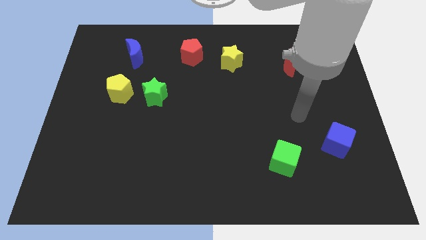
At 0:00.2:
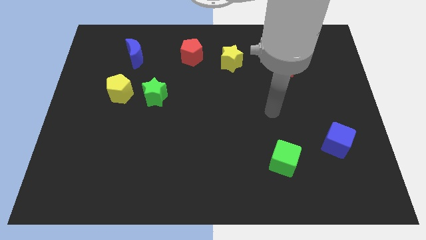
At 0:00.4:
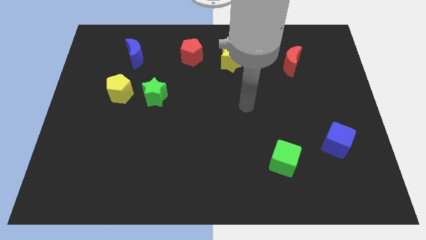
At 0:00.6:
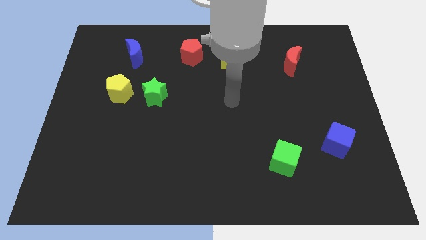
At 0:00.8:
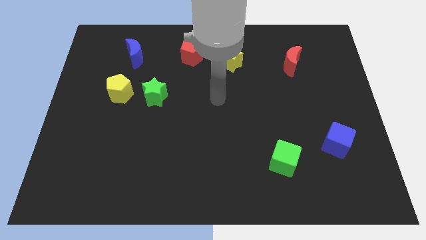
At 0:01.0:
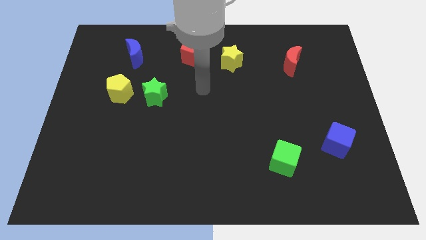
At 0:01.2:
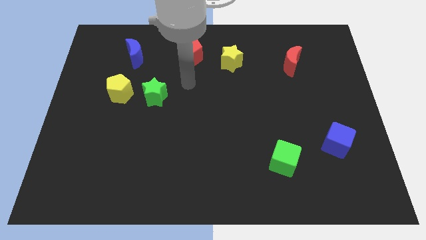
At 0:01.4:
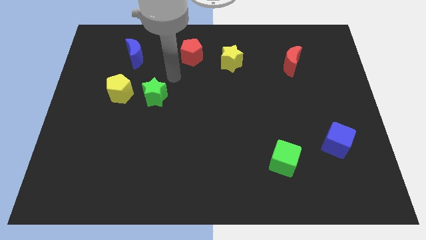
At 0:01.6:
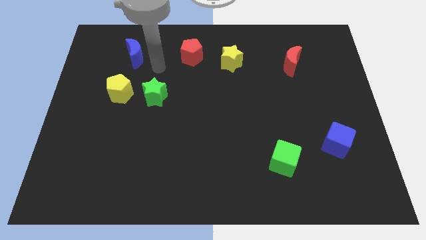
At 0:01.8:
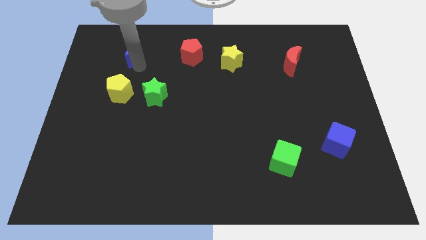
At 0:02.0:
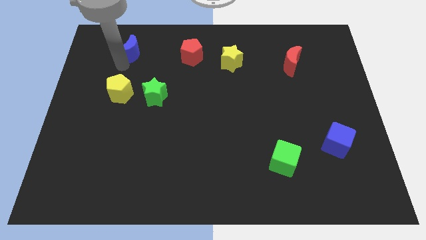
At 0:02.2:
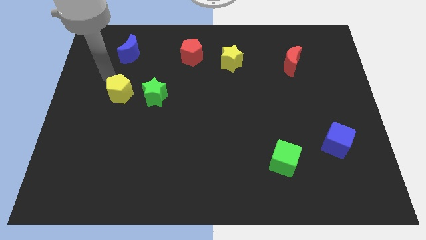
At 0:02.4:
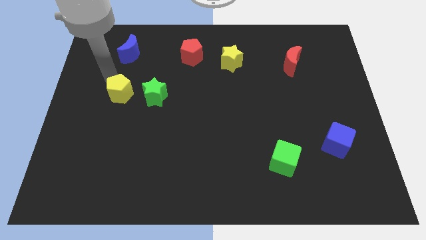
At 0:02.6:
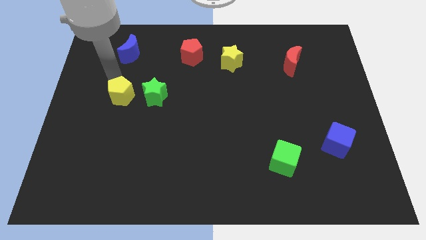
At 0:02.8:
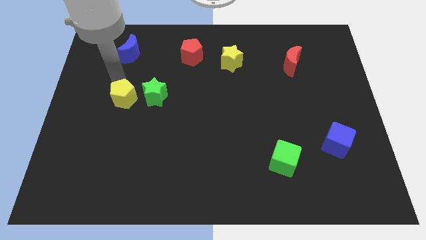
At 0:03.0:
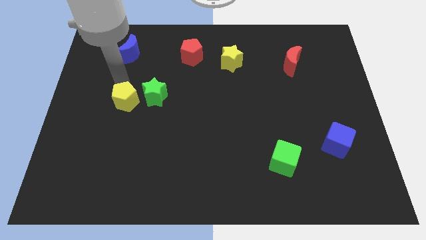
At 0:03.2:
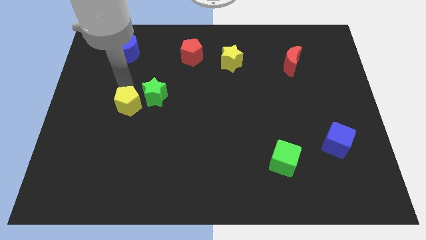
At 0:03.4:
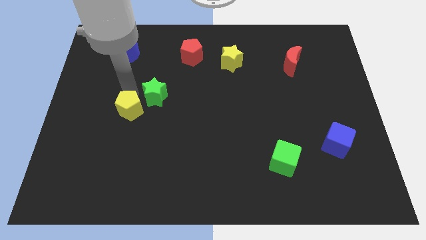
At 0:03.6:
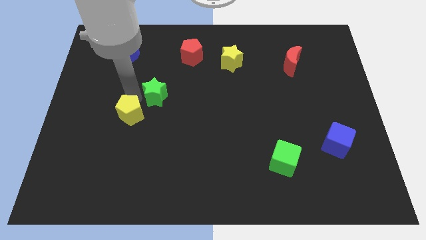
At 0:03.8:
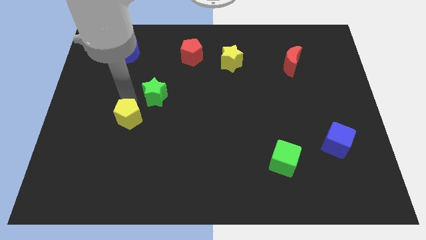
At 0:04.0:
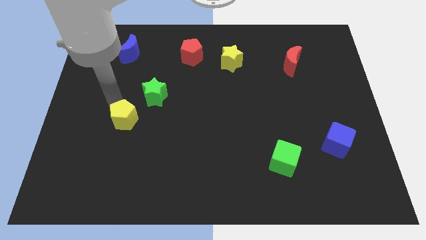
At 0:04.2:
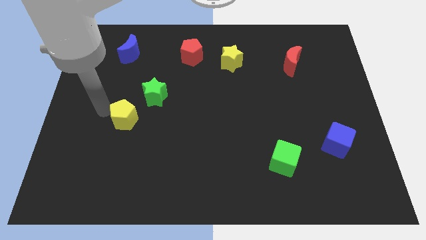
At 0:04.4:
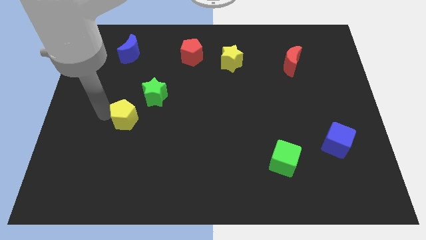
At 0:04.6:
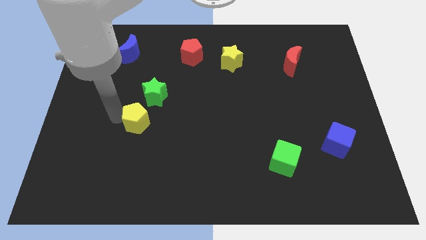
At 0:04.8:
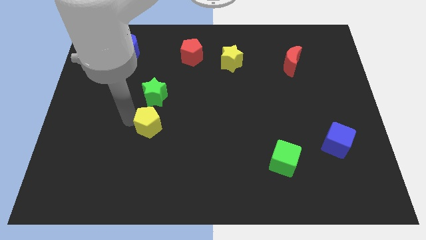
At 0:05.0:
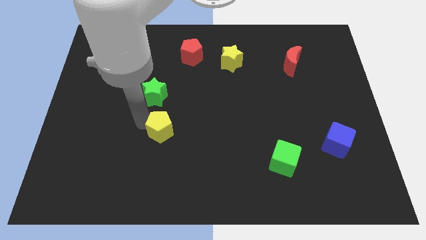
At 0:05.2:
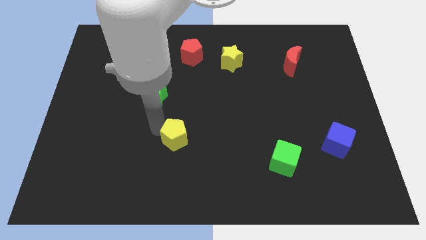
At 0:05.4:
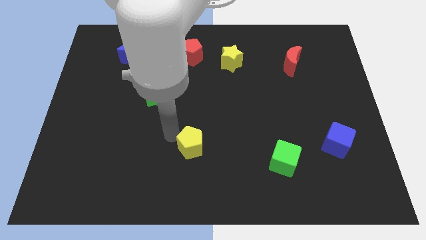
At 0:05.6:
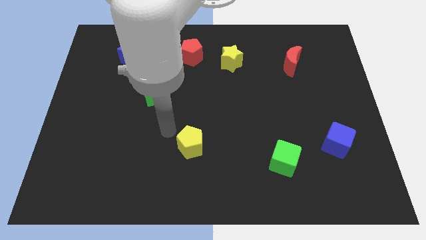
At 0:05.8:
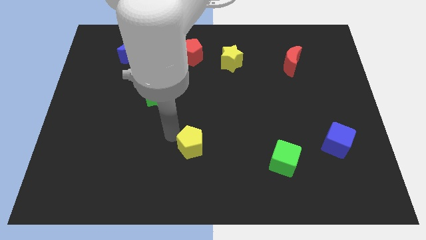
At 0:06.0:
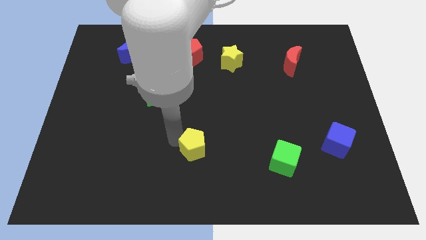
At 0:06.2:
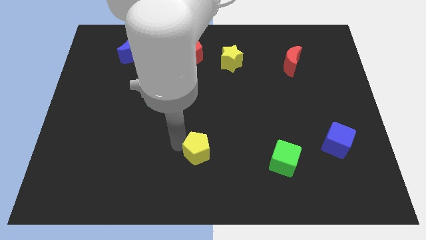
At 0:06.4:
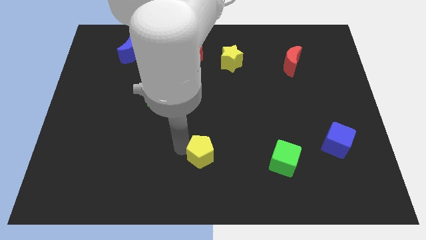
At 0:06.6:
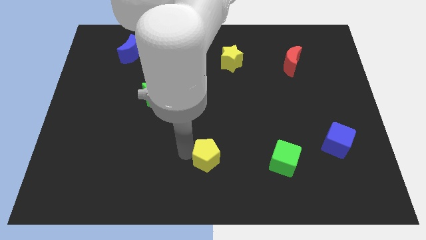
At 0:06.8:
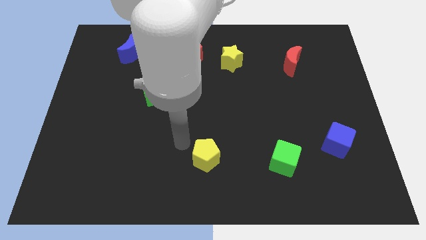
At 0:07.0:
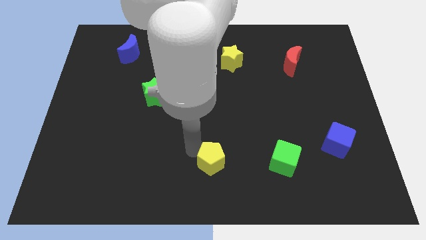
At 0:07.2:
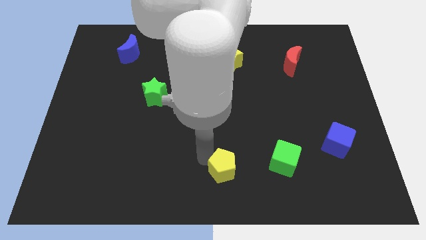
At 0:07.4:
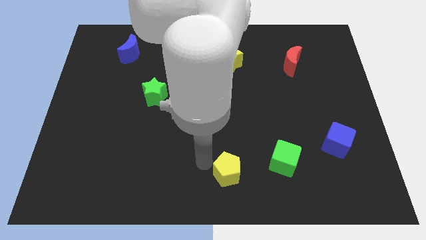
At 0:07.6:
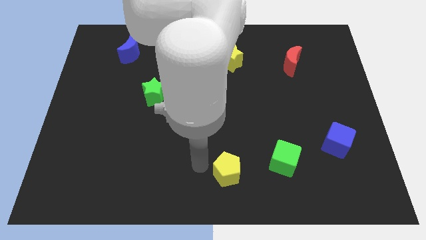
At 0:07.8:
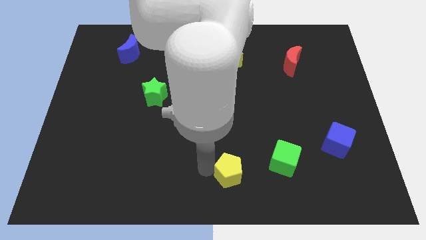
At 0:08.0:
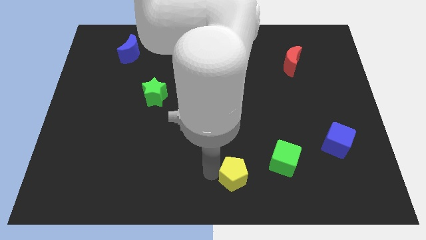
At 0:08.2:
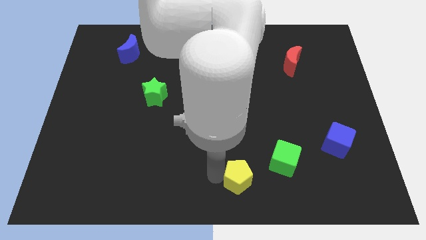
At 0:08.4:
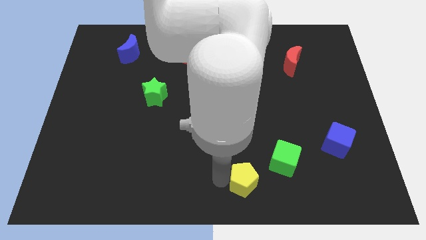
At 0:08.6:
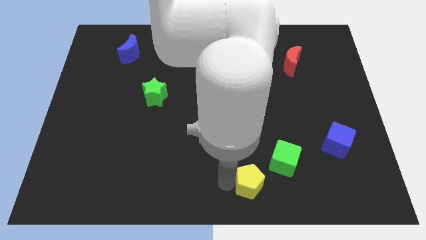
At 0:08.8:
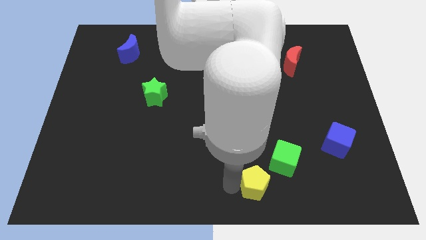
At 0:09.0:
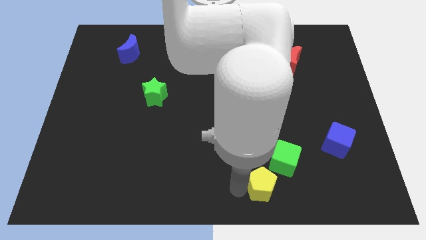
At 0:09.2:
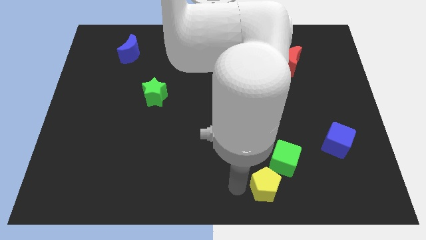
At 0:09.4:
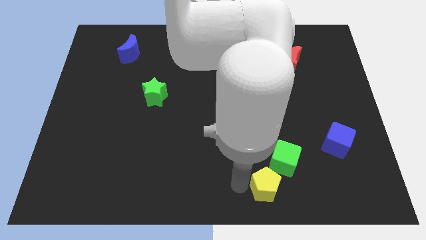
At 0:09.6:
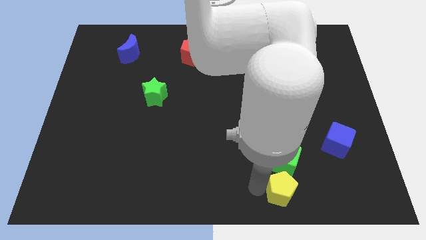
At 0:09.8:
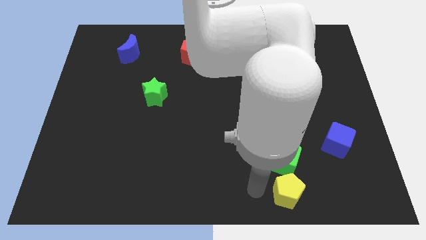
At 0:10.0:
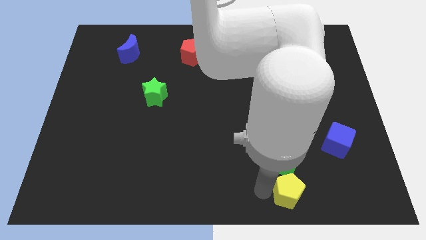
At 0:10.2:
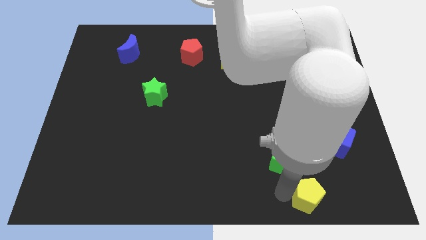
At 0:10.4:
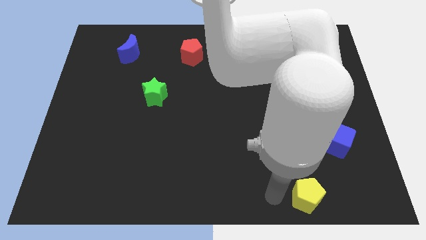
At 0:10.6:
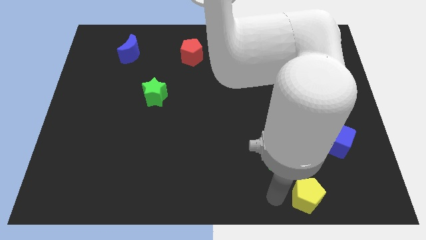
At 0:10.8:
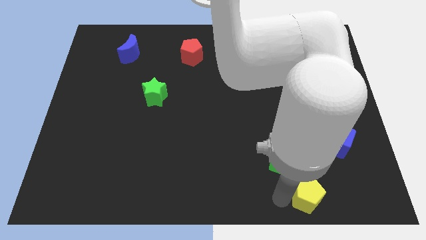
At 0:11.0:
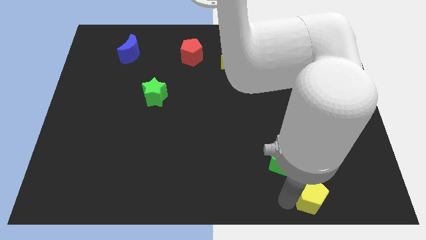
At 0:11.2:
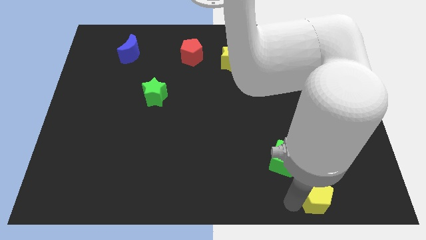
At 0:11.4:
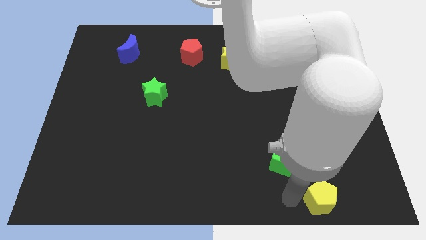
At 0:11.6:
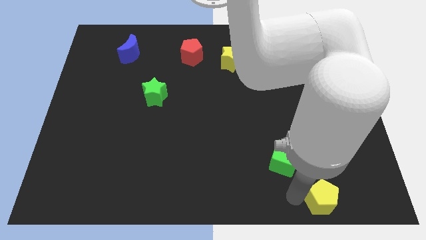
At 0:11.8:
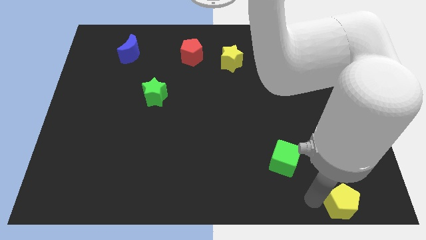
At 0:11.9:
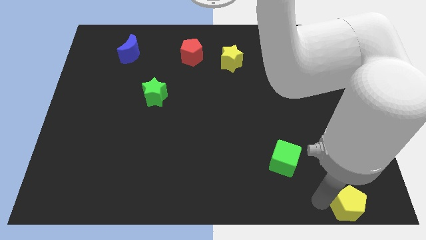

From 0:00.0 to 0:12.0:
move the yellow pentagon to the bottom right corner
